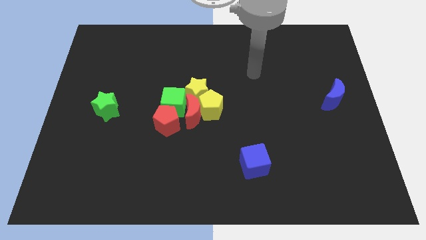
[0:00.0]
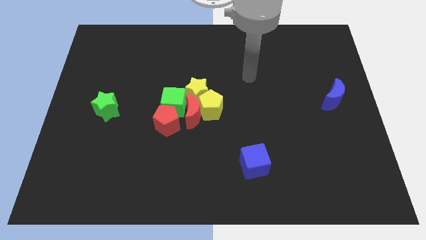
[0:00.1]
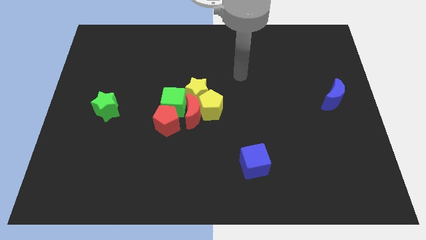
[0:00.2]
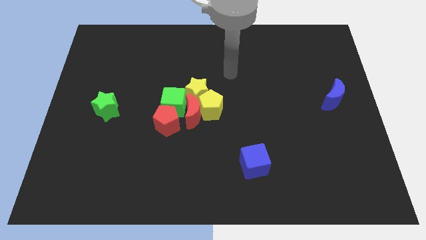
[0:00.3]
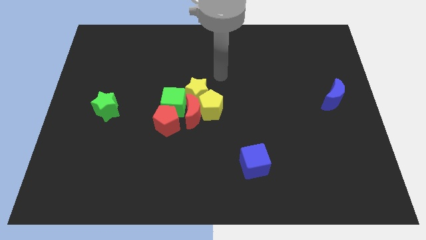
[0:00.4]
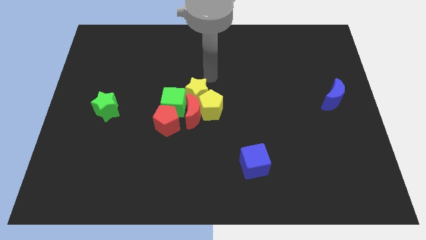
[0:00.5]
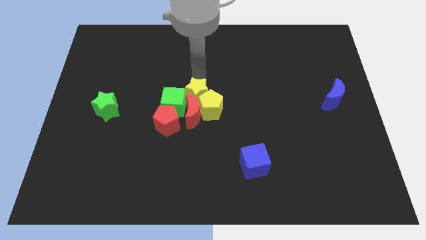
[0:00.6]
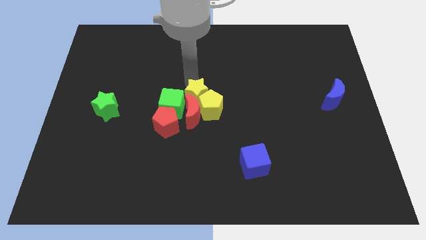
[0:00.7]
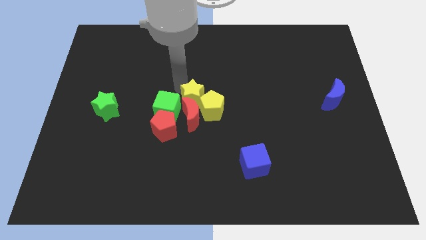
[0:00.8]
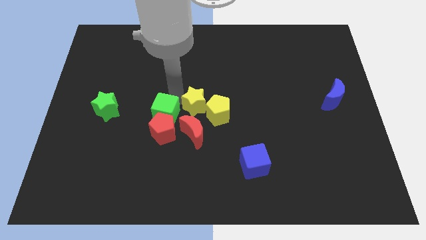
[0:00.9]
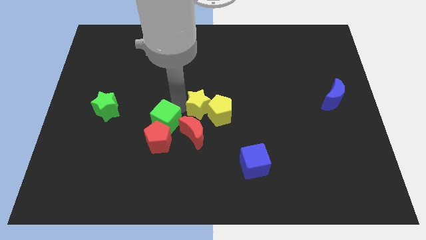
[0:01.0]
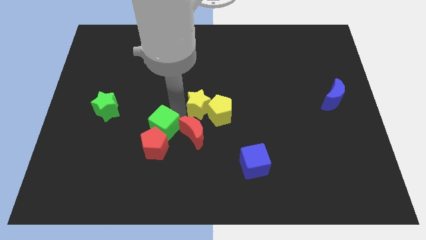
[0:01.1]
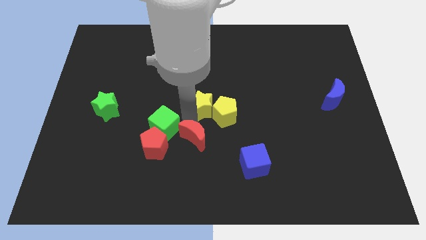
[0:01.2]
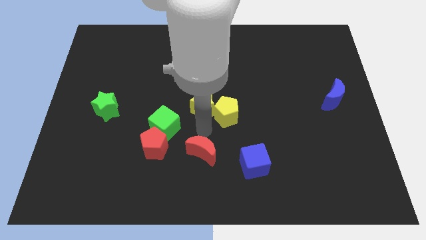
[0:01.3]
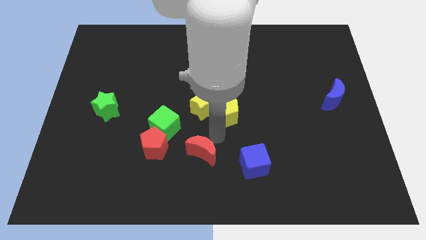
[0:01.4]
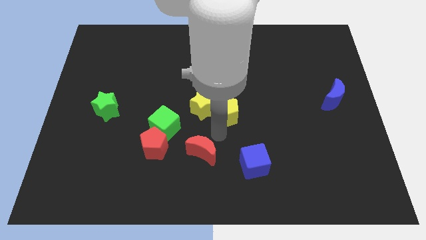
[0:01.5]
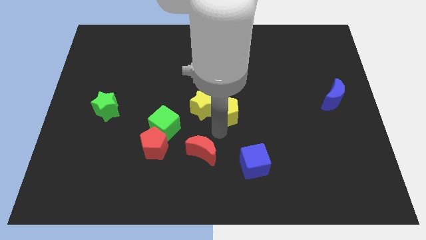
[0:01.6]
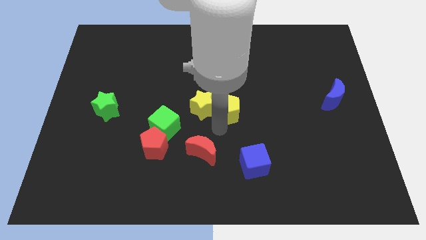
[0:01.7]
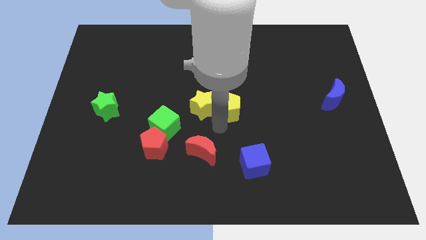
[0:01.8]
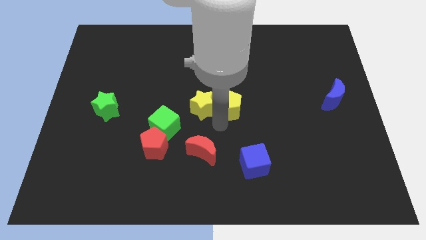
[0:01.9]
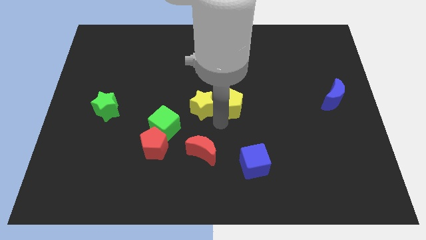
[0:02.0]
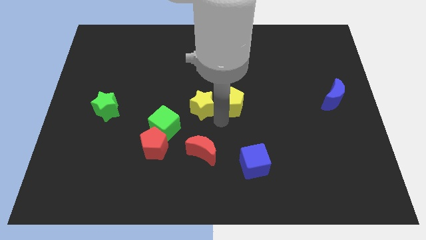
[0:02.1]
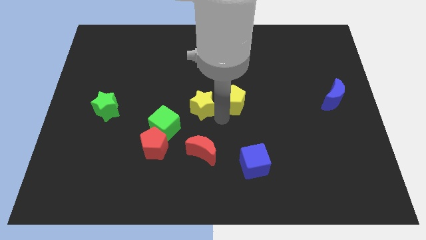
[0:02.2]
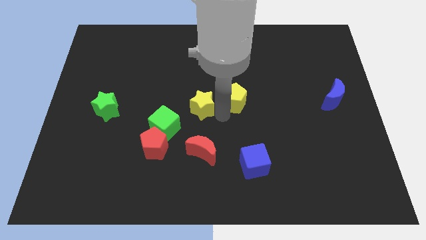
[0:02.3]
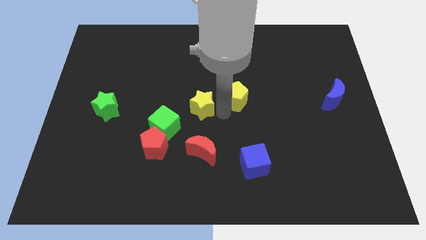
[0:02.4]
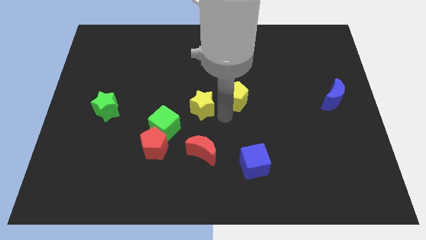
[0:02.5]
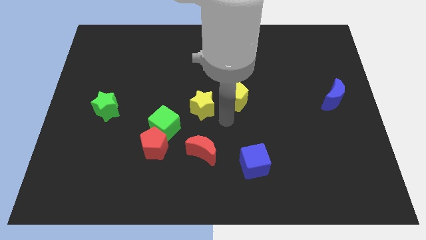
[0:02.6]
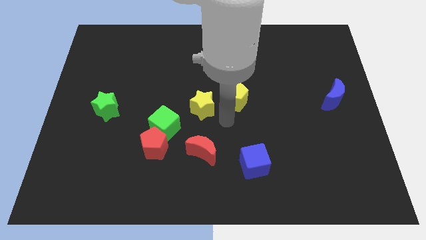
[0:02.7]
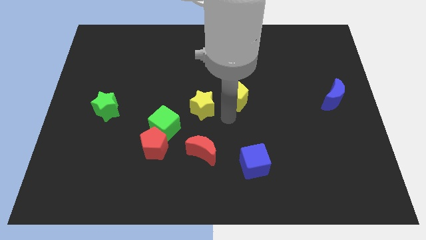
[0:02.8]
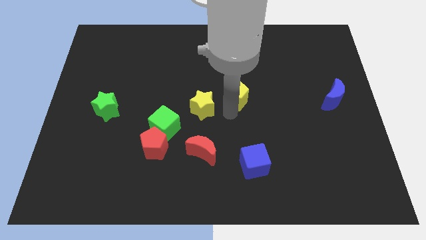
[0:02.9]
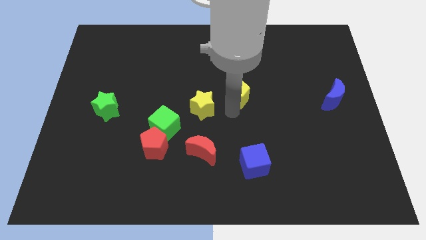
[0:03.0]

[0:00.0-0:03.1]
move the yellow pentagon a bit upwards and then right

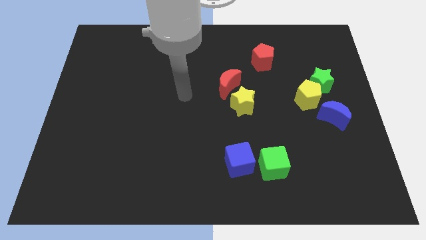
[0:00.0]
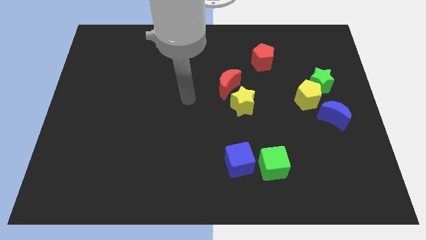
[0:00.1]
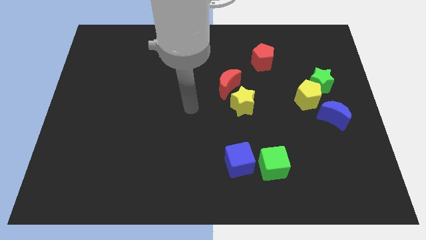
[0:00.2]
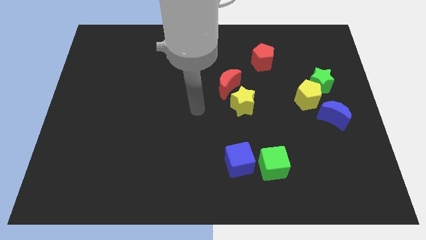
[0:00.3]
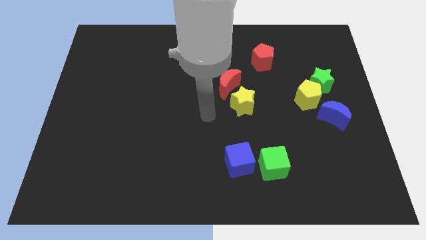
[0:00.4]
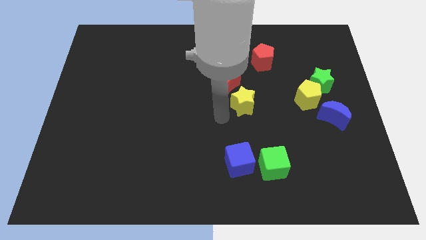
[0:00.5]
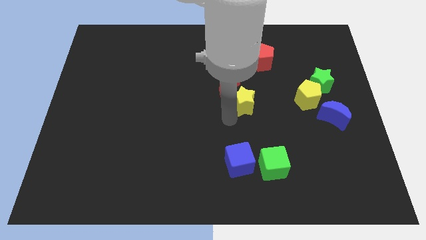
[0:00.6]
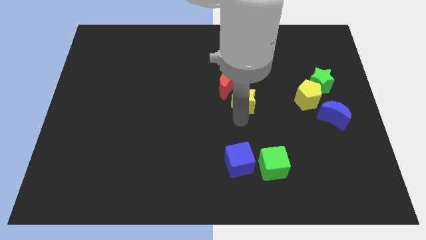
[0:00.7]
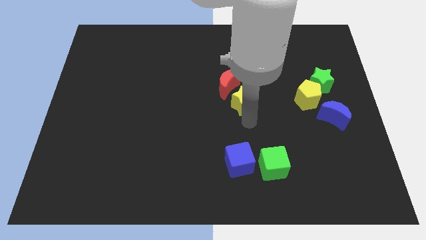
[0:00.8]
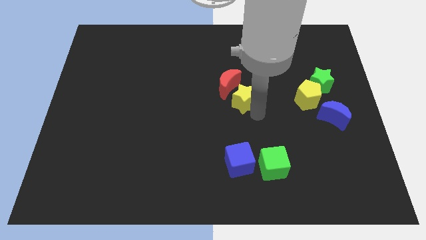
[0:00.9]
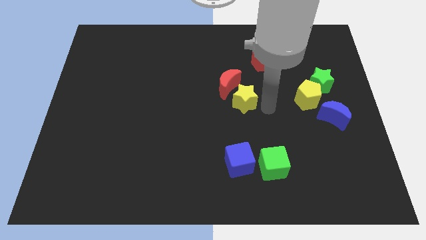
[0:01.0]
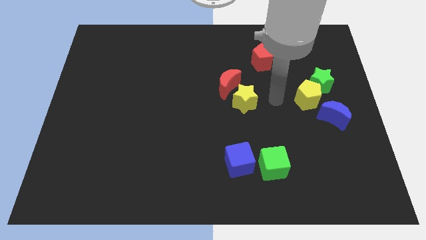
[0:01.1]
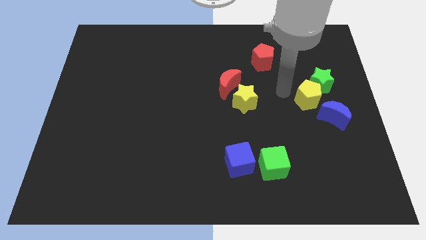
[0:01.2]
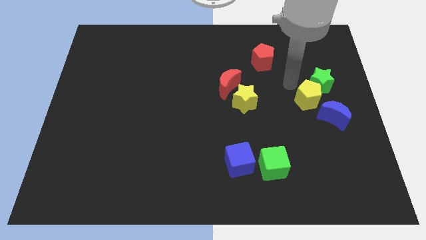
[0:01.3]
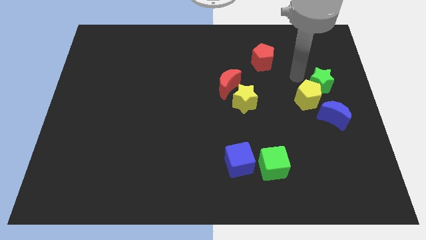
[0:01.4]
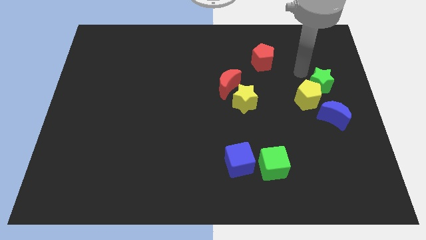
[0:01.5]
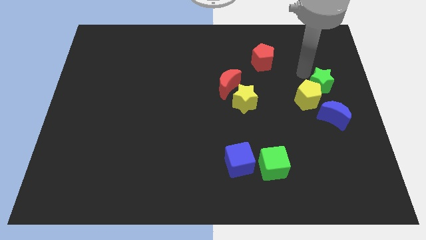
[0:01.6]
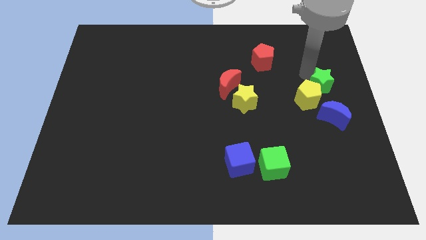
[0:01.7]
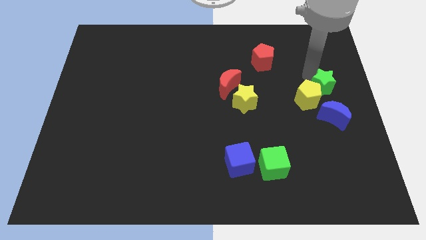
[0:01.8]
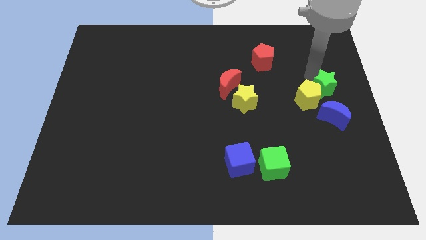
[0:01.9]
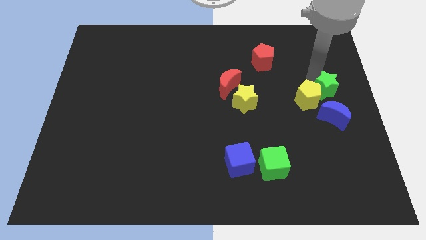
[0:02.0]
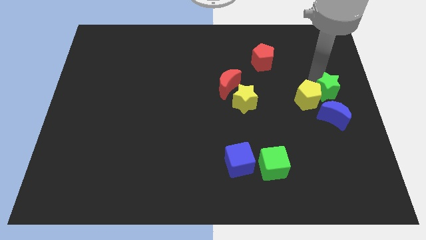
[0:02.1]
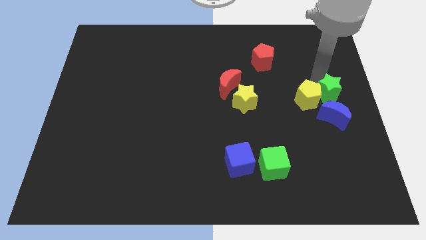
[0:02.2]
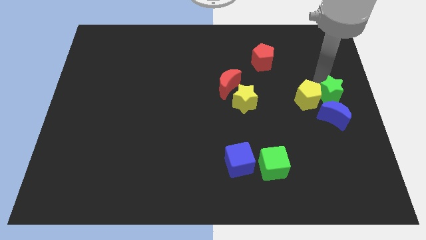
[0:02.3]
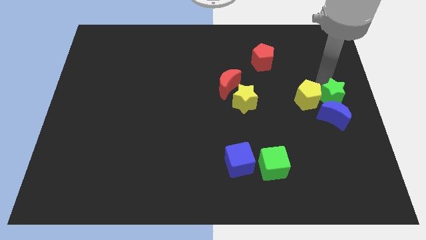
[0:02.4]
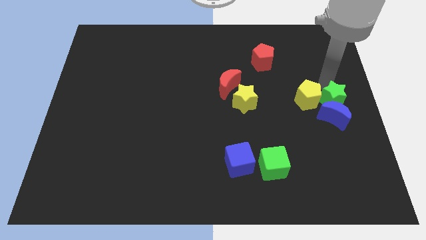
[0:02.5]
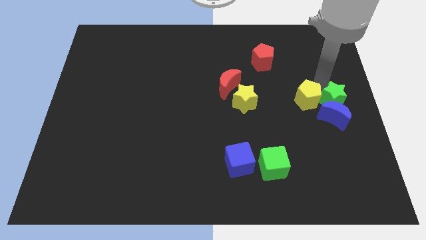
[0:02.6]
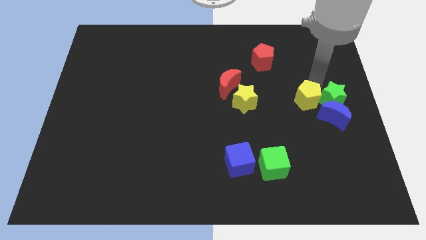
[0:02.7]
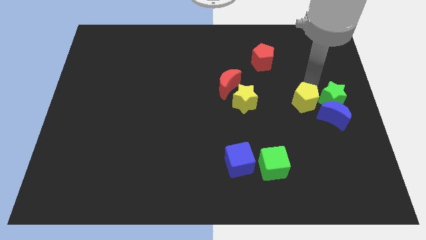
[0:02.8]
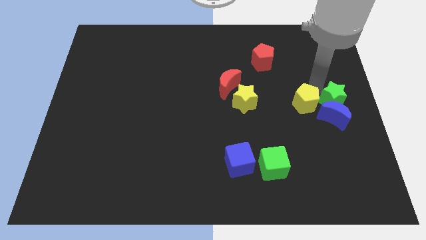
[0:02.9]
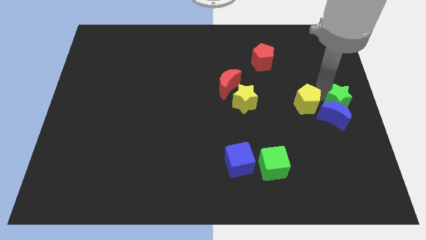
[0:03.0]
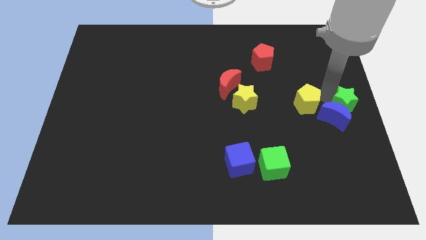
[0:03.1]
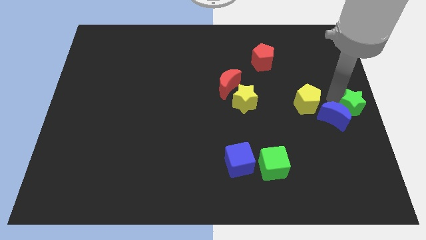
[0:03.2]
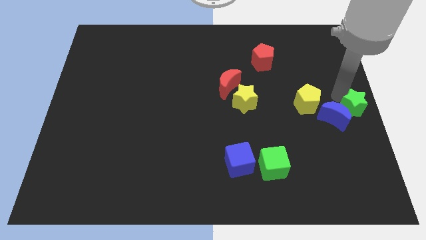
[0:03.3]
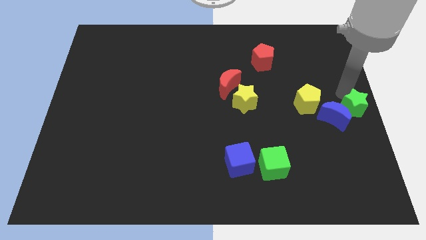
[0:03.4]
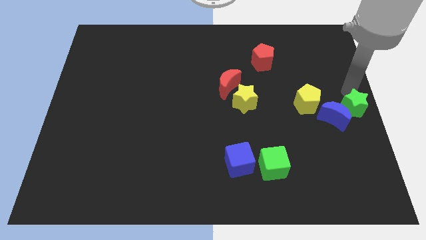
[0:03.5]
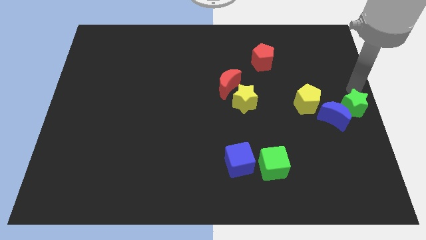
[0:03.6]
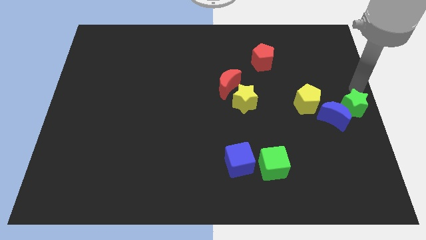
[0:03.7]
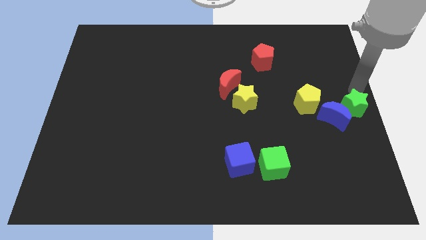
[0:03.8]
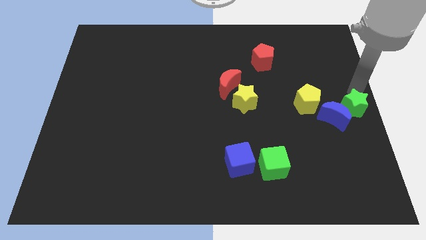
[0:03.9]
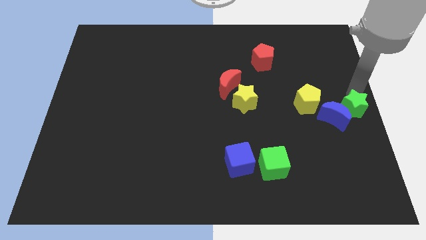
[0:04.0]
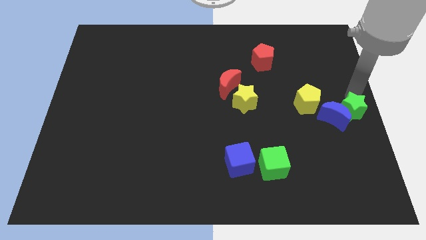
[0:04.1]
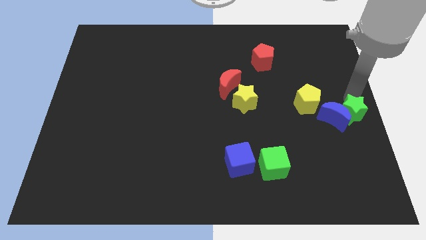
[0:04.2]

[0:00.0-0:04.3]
move the green star a little bit downwards

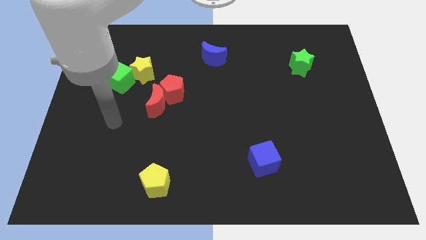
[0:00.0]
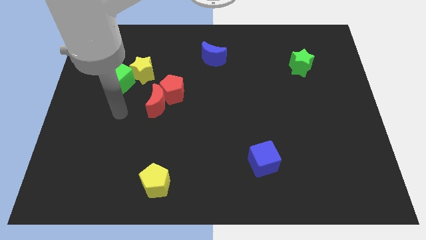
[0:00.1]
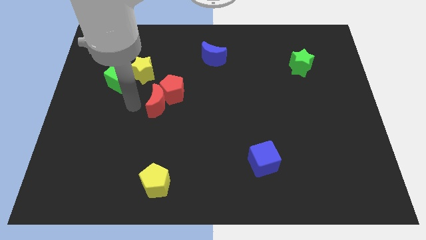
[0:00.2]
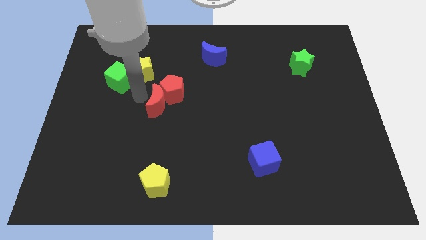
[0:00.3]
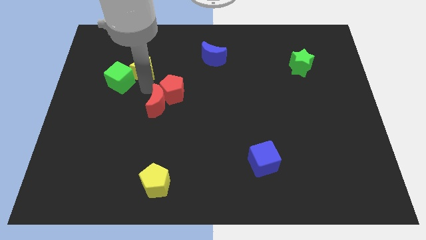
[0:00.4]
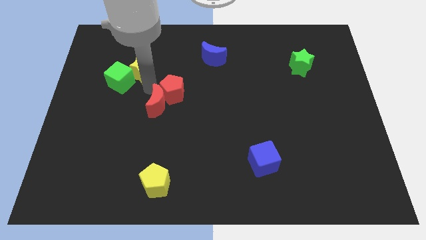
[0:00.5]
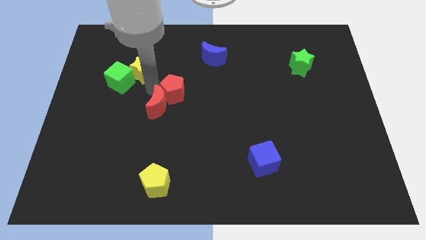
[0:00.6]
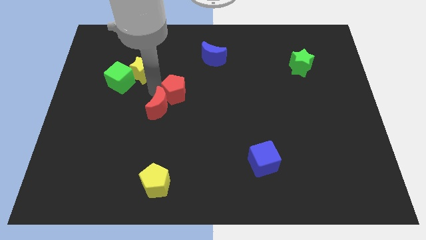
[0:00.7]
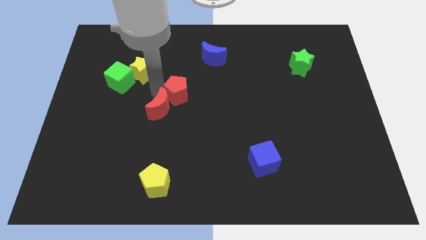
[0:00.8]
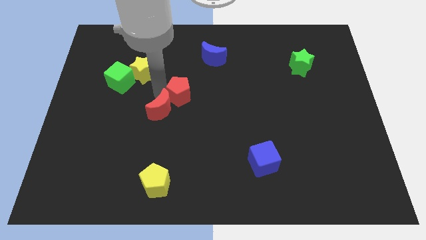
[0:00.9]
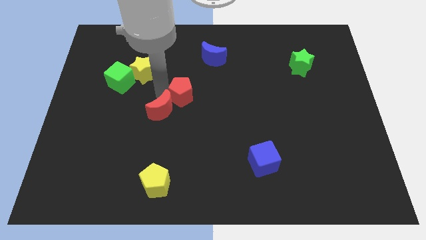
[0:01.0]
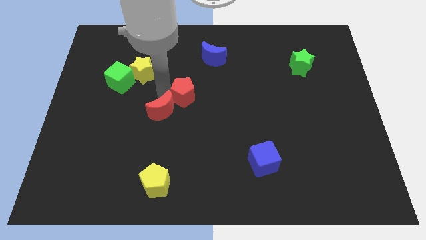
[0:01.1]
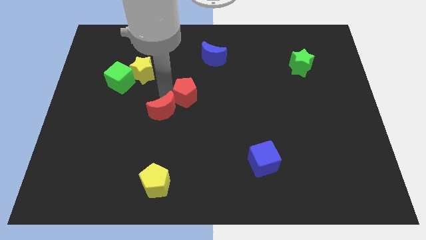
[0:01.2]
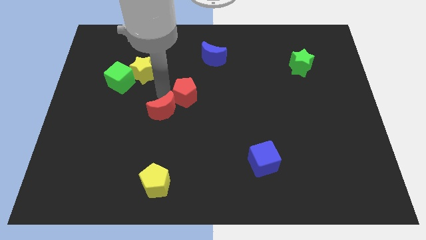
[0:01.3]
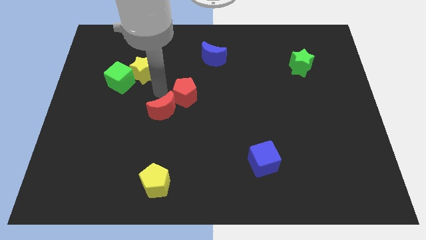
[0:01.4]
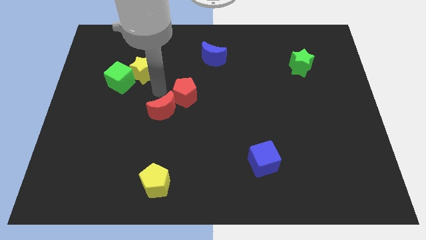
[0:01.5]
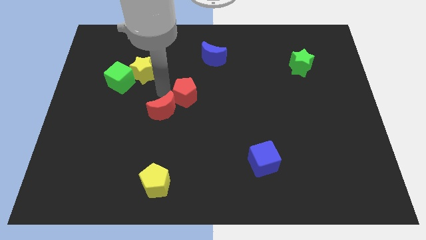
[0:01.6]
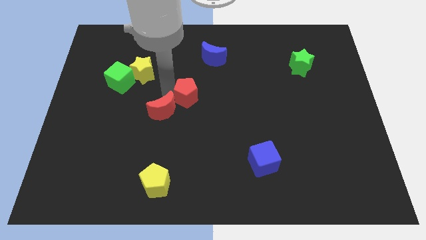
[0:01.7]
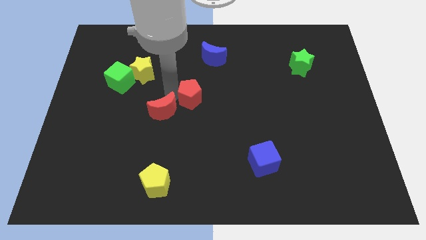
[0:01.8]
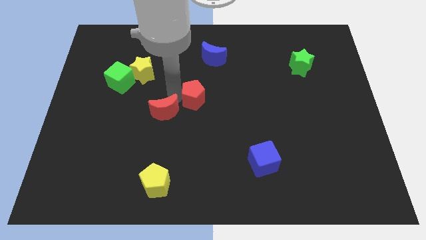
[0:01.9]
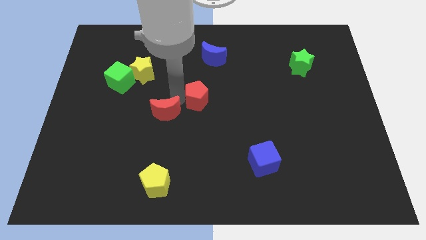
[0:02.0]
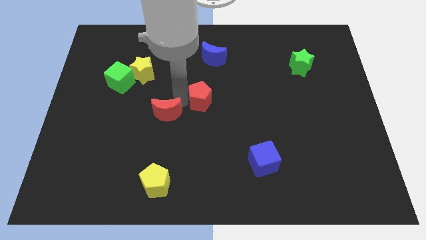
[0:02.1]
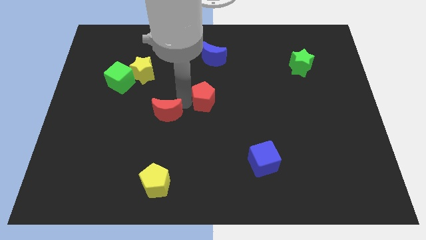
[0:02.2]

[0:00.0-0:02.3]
slightly slide the red pentagon to the right
